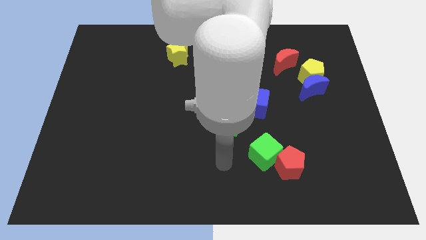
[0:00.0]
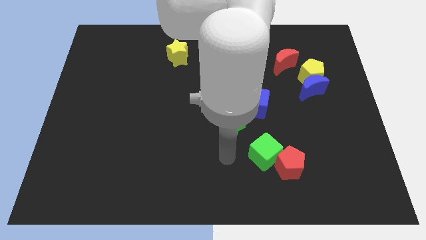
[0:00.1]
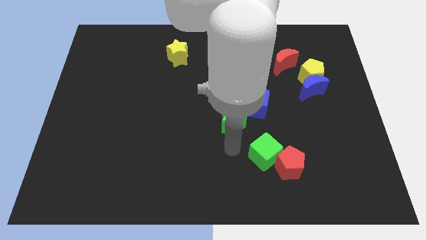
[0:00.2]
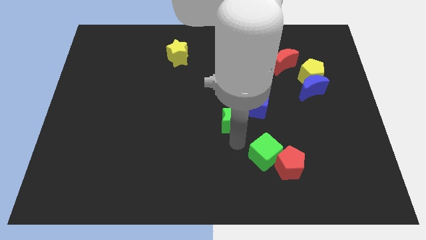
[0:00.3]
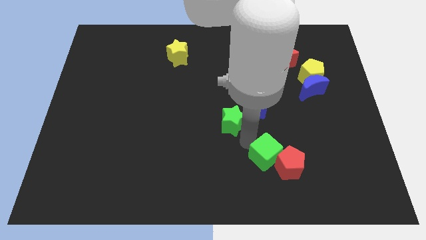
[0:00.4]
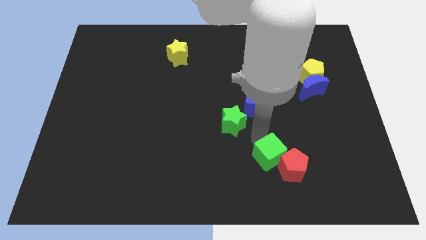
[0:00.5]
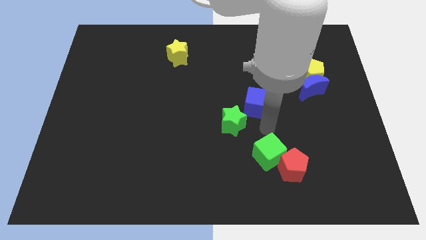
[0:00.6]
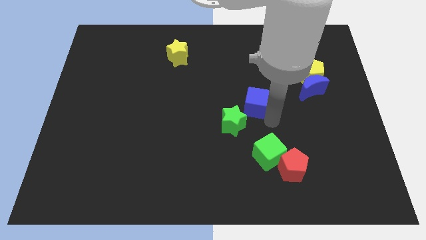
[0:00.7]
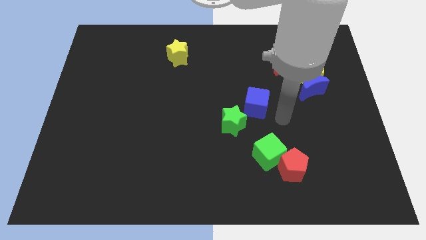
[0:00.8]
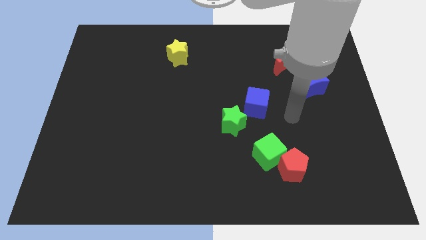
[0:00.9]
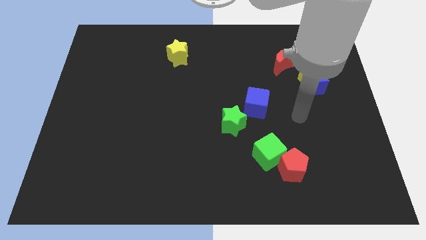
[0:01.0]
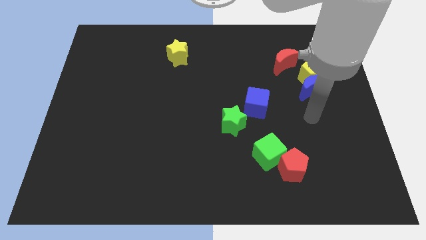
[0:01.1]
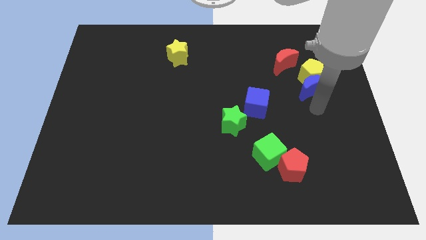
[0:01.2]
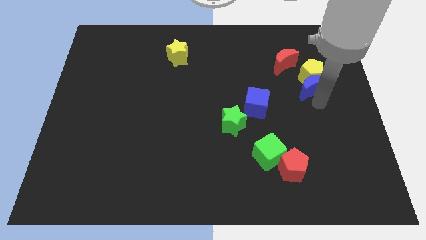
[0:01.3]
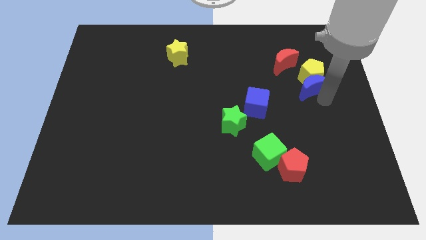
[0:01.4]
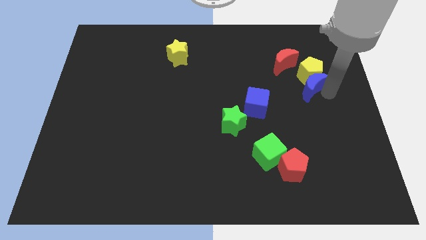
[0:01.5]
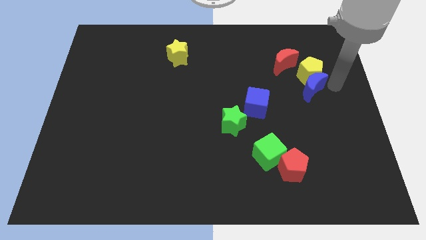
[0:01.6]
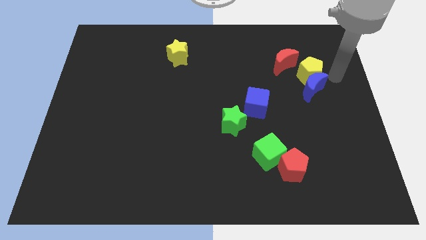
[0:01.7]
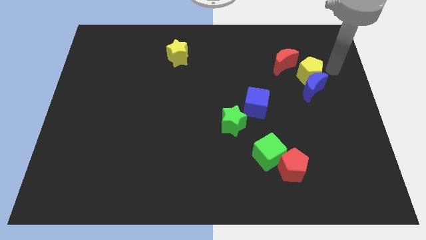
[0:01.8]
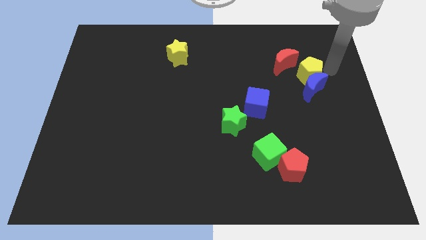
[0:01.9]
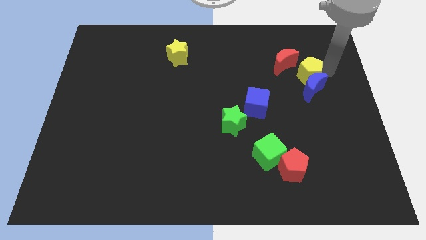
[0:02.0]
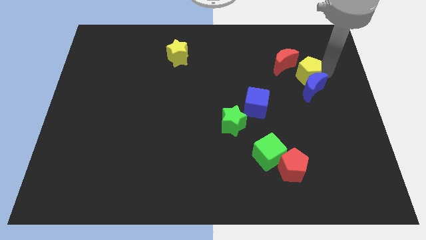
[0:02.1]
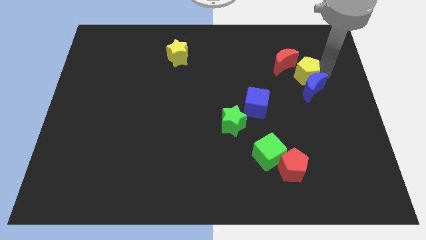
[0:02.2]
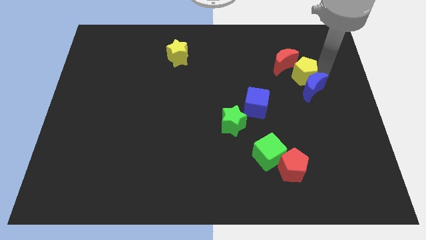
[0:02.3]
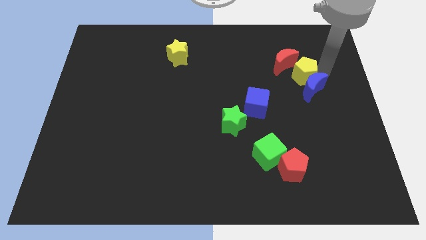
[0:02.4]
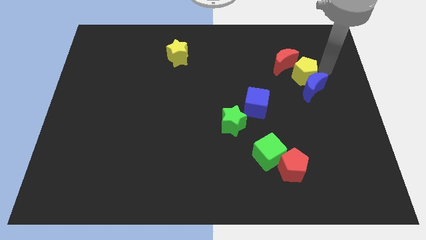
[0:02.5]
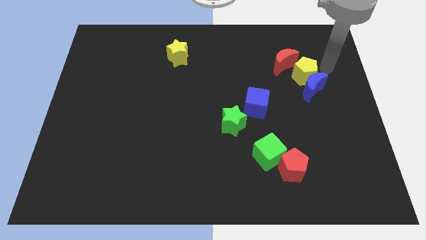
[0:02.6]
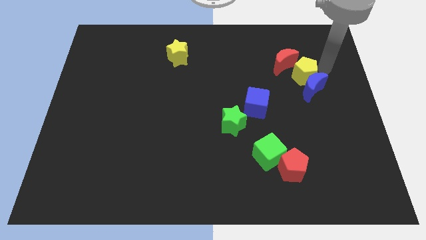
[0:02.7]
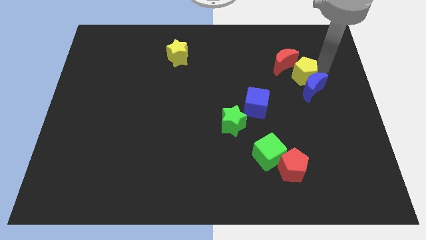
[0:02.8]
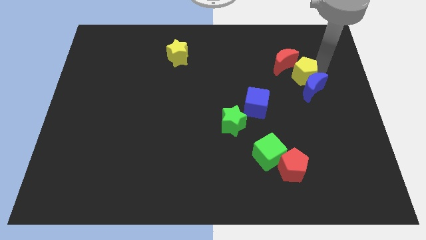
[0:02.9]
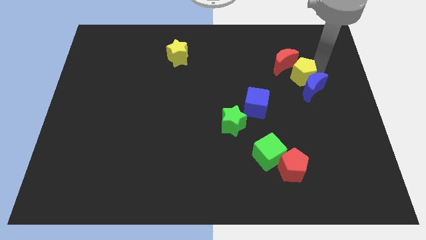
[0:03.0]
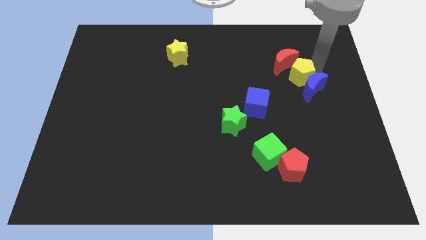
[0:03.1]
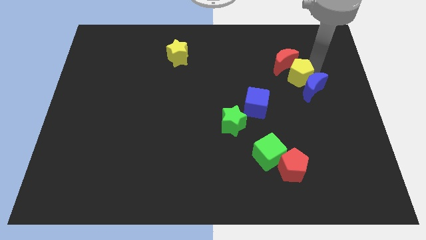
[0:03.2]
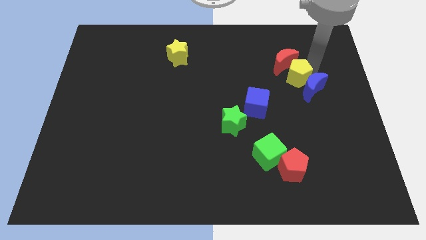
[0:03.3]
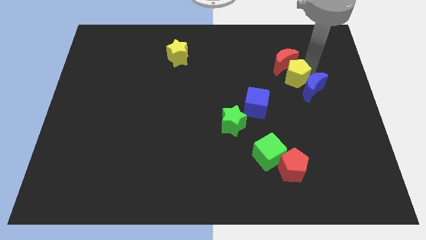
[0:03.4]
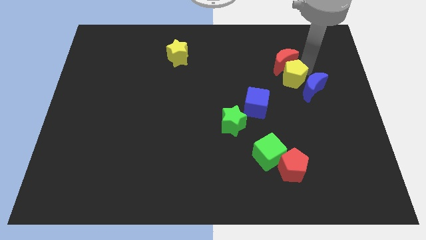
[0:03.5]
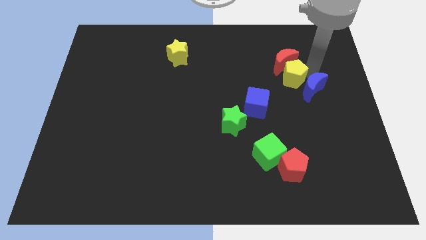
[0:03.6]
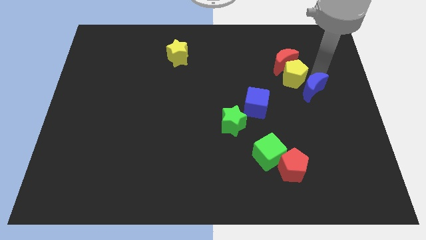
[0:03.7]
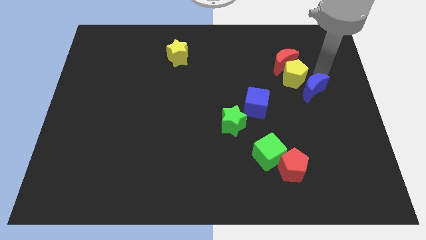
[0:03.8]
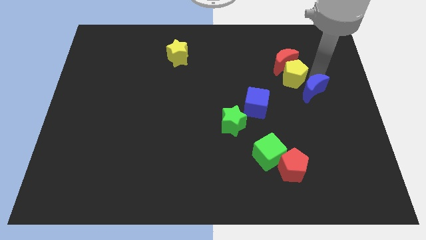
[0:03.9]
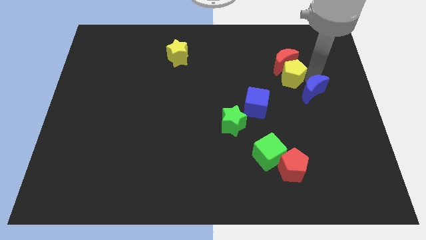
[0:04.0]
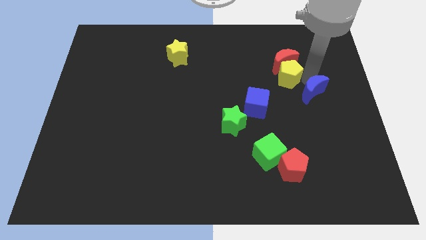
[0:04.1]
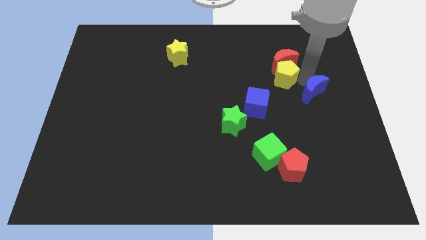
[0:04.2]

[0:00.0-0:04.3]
move the yellow pentagon left somewhat

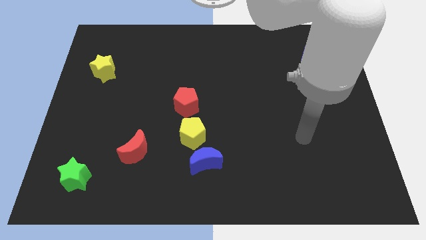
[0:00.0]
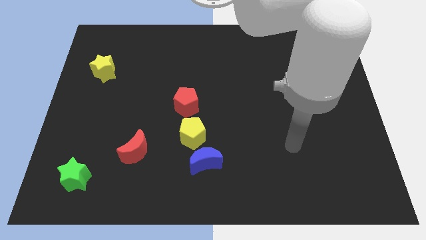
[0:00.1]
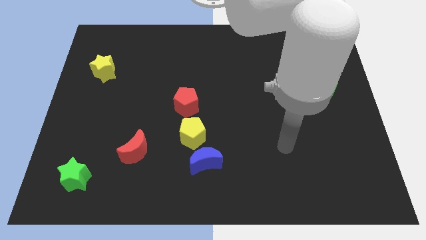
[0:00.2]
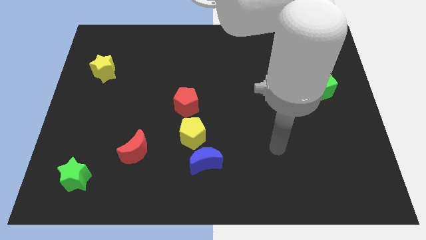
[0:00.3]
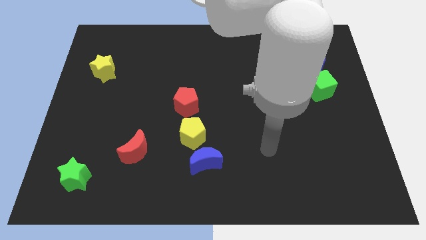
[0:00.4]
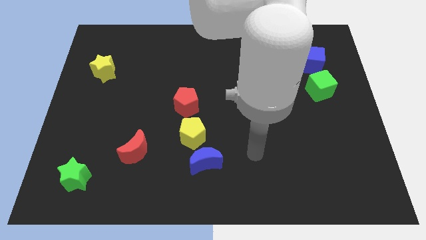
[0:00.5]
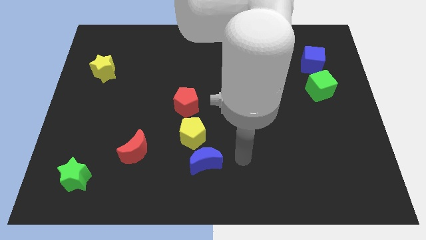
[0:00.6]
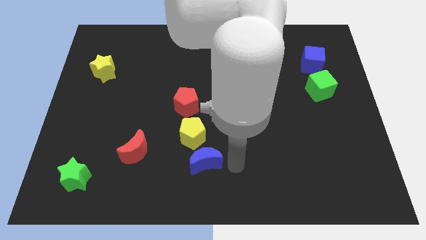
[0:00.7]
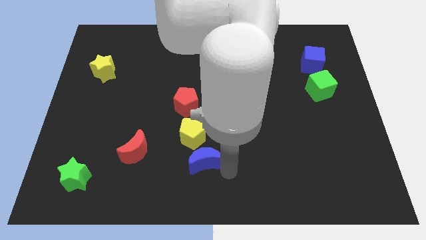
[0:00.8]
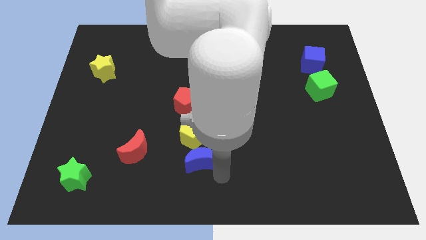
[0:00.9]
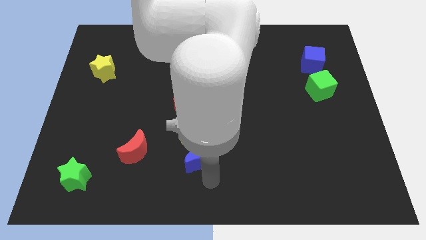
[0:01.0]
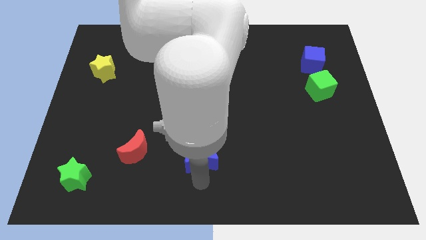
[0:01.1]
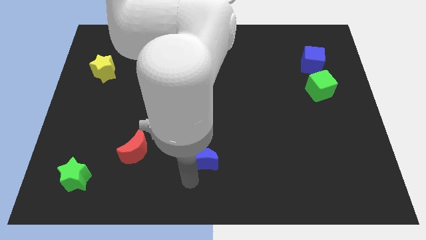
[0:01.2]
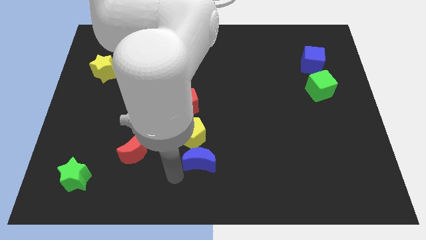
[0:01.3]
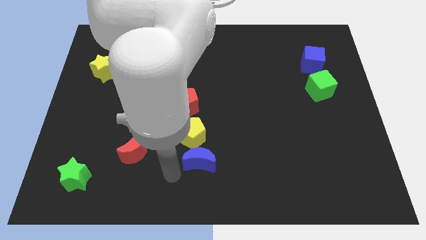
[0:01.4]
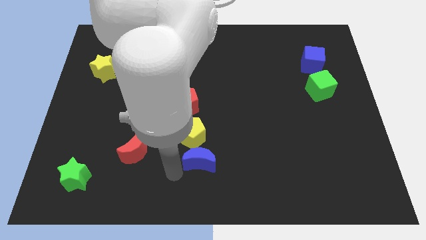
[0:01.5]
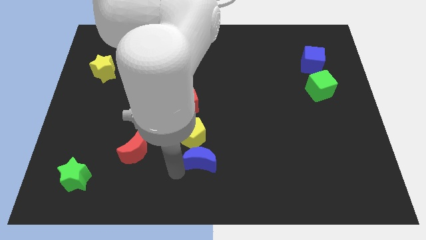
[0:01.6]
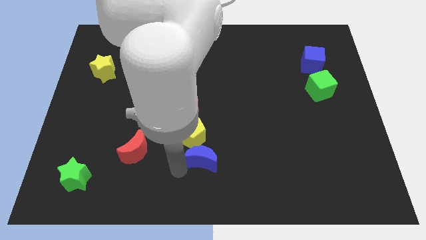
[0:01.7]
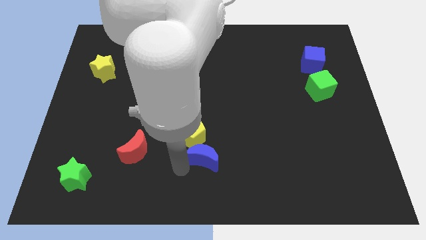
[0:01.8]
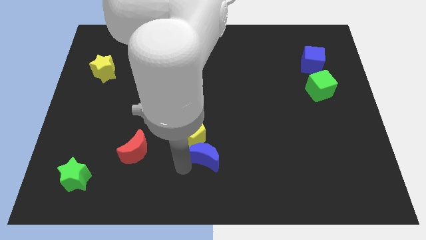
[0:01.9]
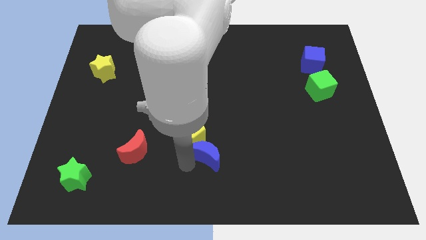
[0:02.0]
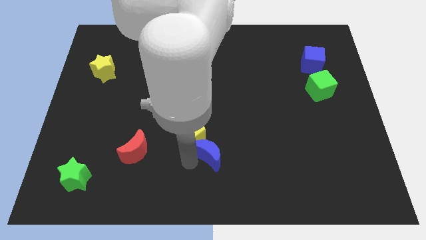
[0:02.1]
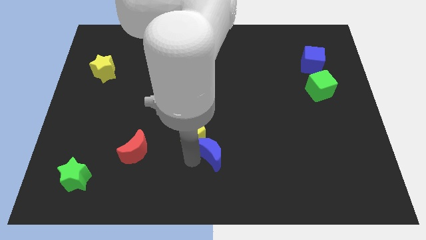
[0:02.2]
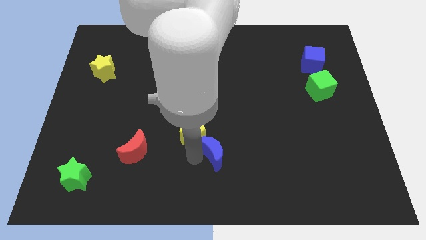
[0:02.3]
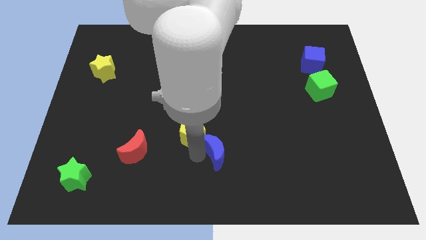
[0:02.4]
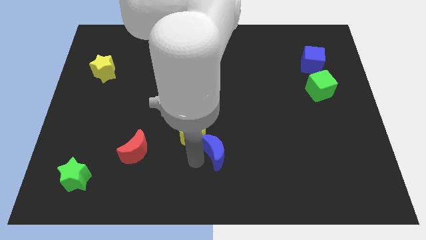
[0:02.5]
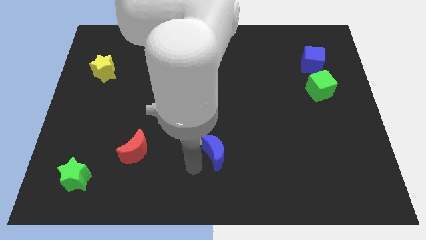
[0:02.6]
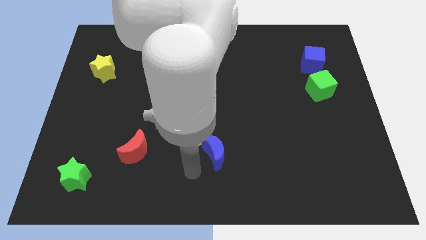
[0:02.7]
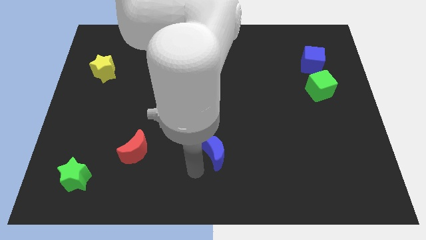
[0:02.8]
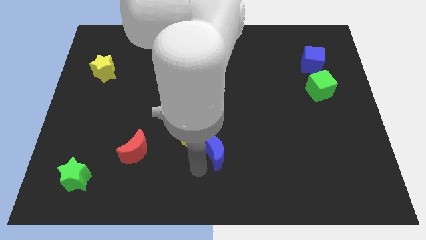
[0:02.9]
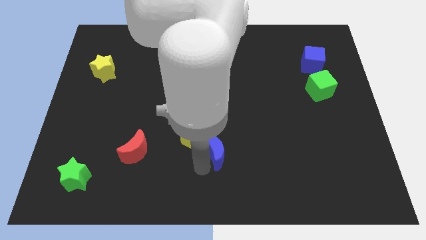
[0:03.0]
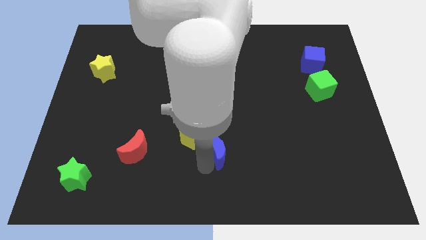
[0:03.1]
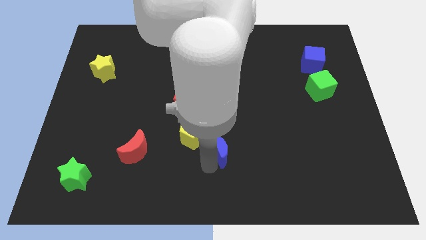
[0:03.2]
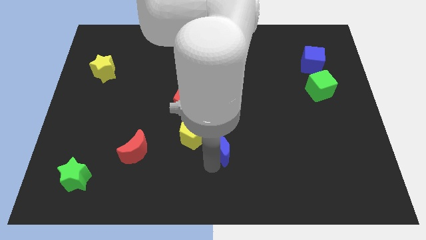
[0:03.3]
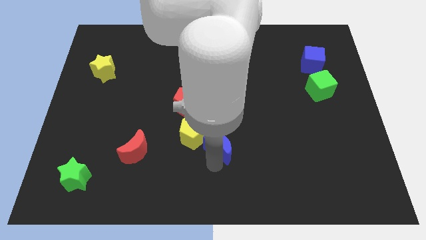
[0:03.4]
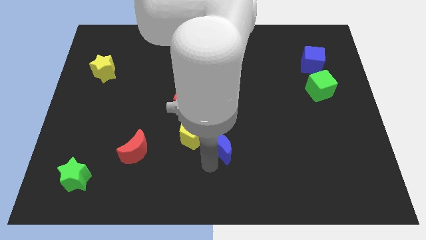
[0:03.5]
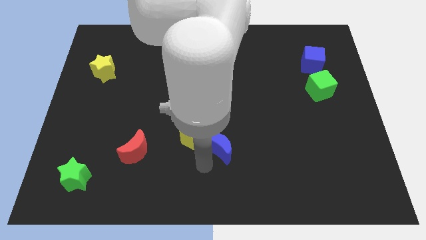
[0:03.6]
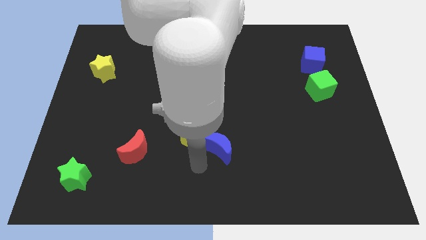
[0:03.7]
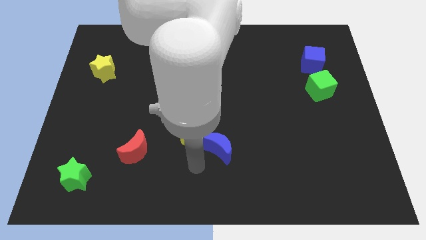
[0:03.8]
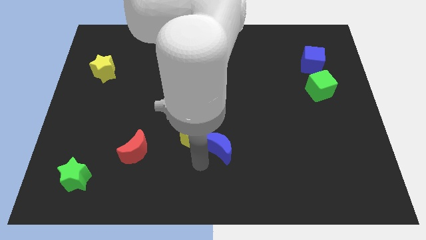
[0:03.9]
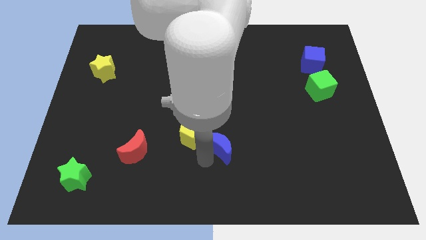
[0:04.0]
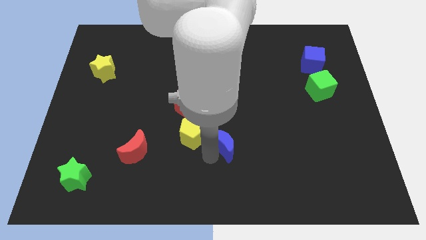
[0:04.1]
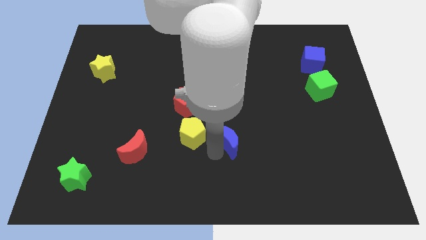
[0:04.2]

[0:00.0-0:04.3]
slightly push the blue moon upwards and right
